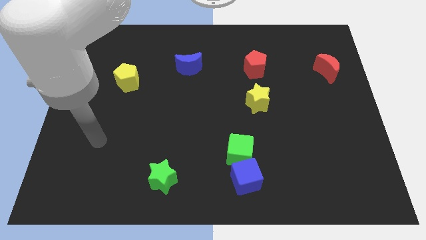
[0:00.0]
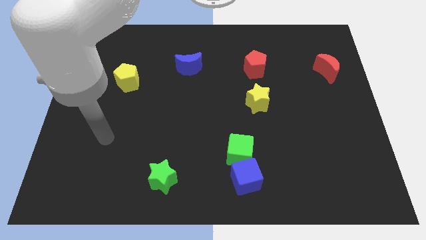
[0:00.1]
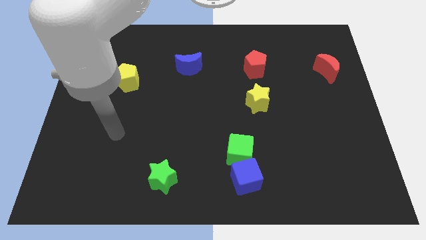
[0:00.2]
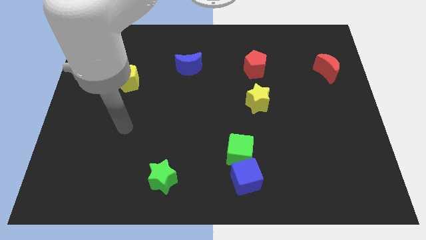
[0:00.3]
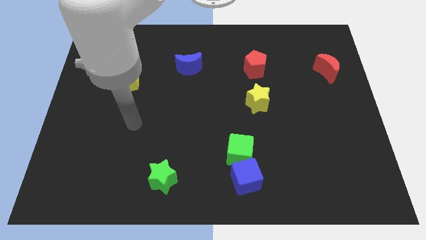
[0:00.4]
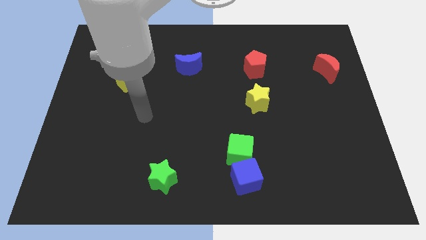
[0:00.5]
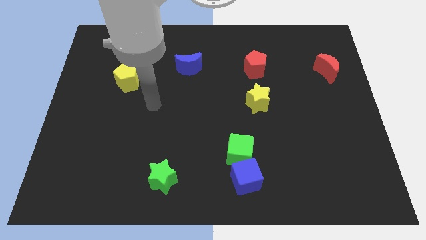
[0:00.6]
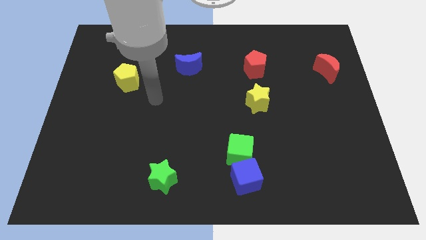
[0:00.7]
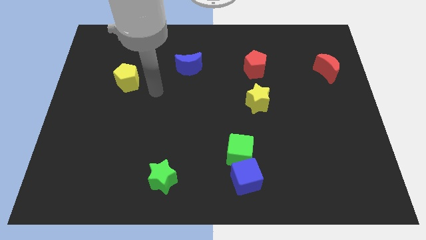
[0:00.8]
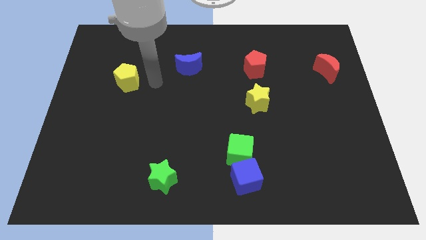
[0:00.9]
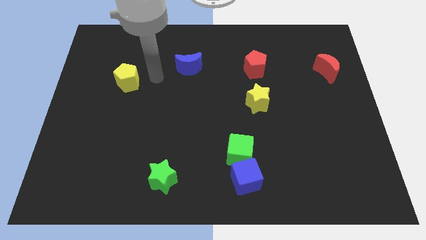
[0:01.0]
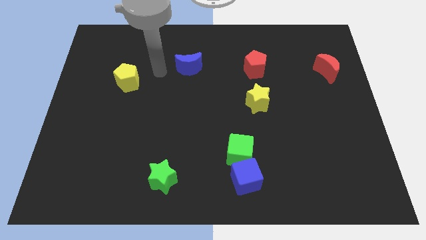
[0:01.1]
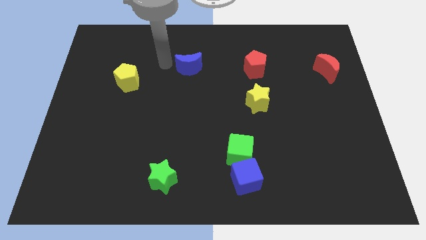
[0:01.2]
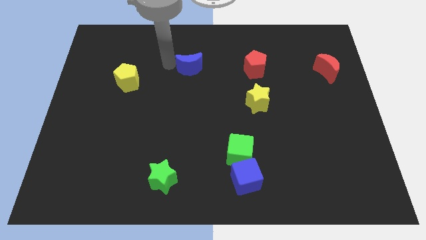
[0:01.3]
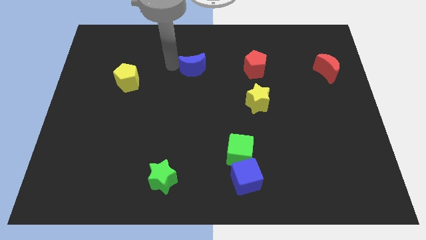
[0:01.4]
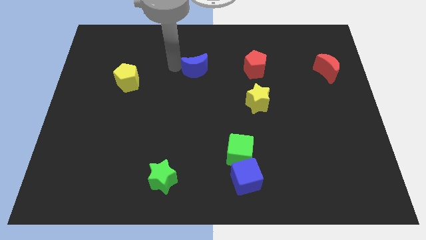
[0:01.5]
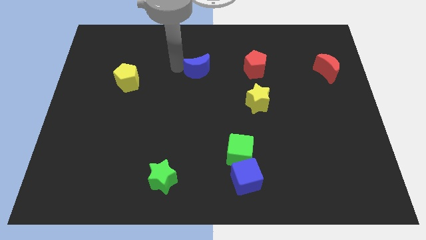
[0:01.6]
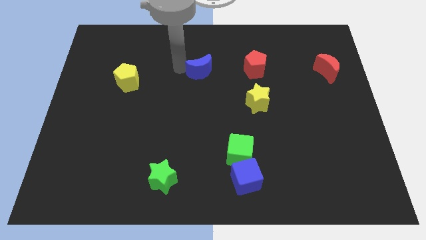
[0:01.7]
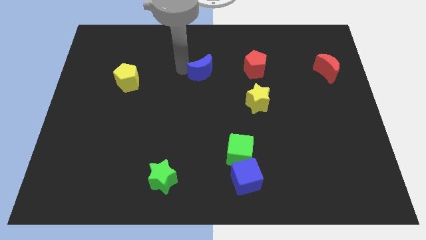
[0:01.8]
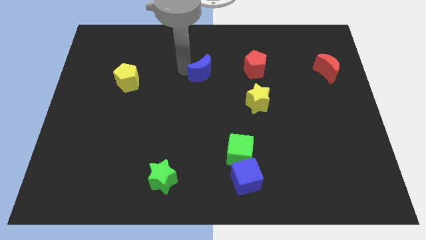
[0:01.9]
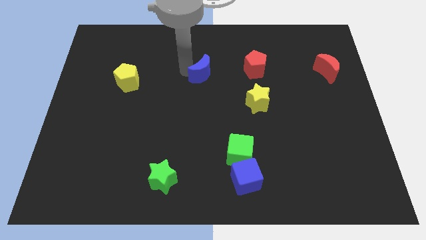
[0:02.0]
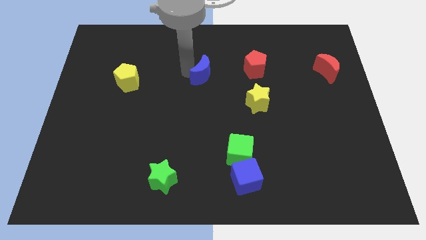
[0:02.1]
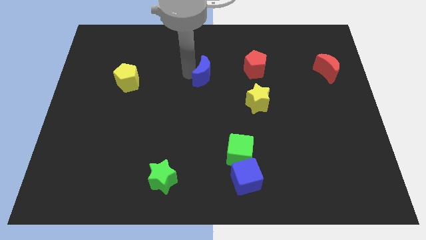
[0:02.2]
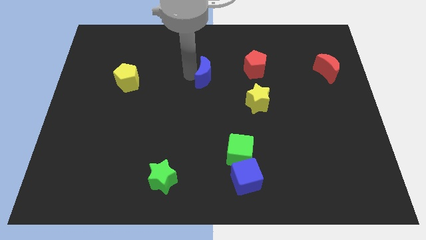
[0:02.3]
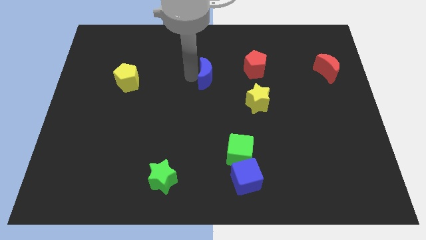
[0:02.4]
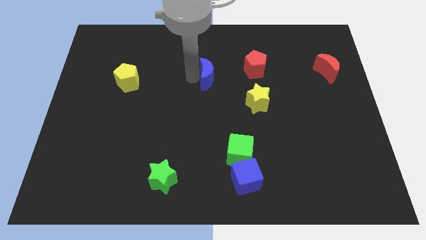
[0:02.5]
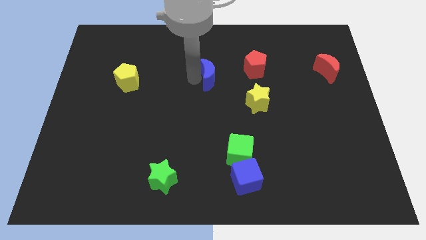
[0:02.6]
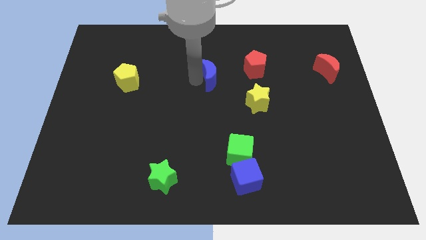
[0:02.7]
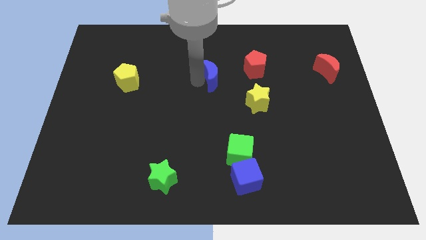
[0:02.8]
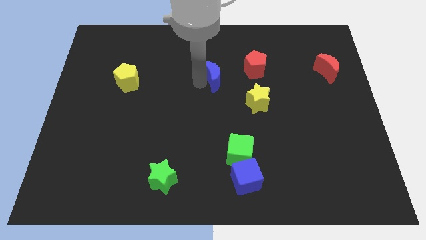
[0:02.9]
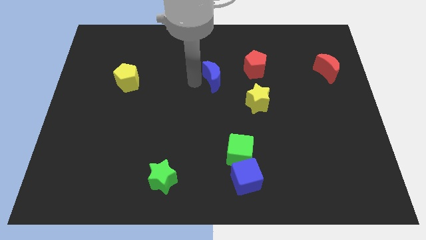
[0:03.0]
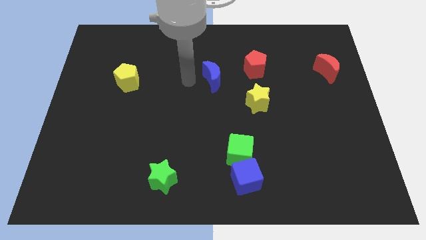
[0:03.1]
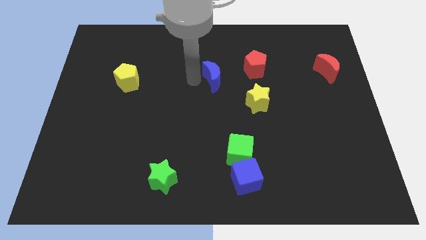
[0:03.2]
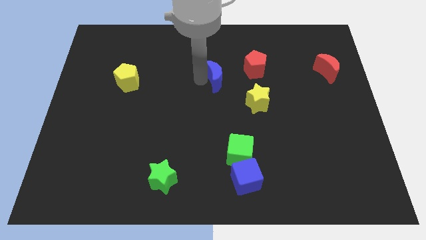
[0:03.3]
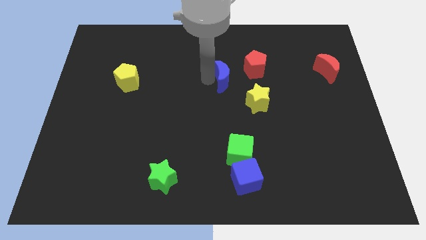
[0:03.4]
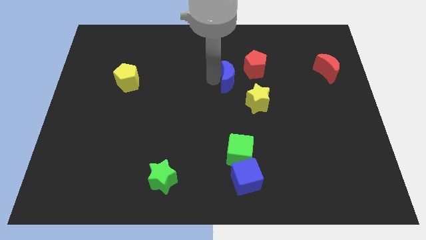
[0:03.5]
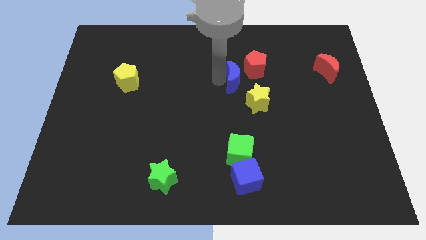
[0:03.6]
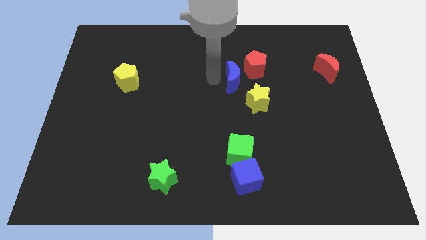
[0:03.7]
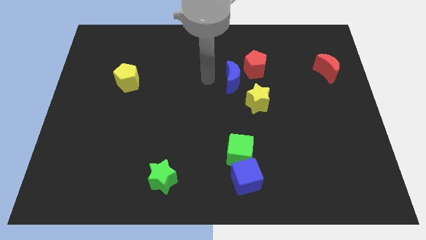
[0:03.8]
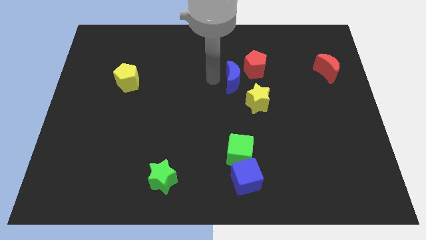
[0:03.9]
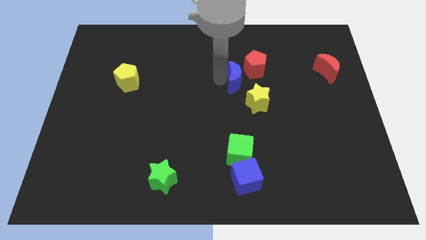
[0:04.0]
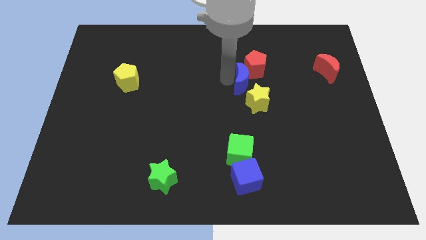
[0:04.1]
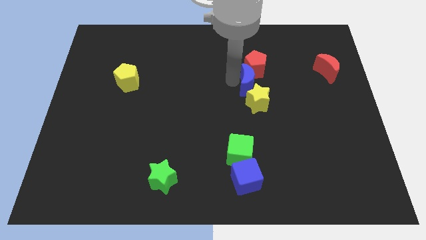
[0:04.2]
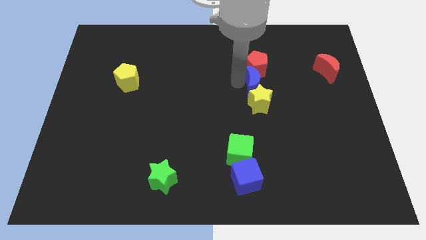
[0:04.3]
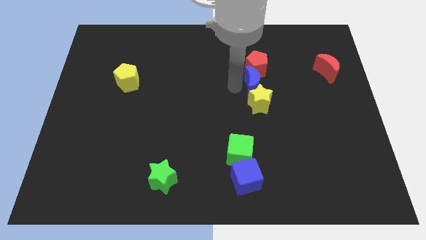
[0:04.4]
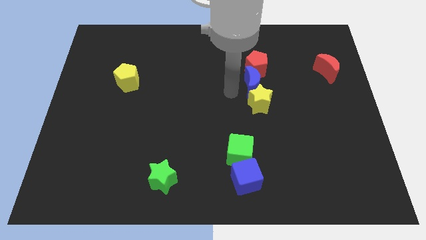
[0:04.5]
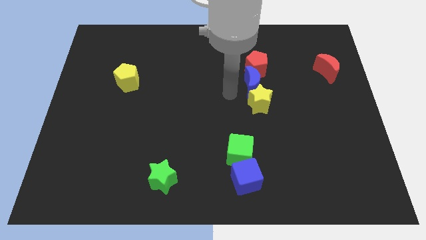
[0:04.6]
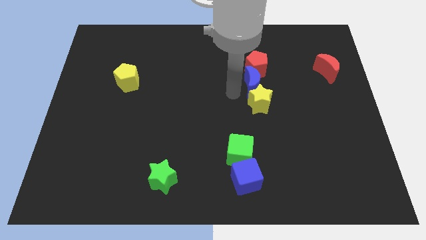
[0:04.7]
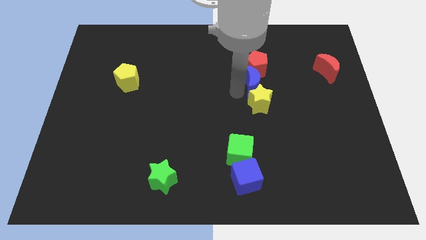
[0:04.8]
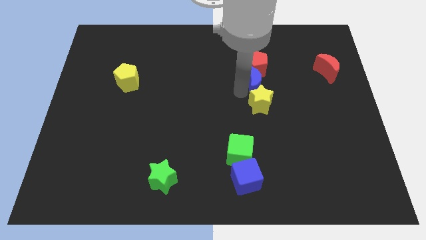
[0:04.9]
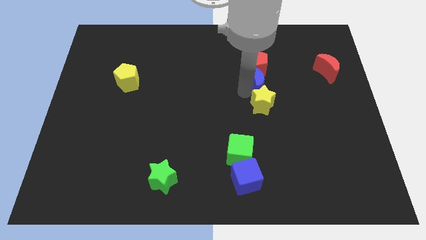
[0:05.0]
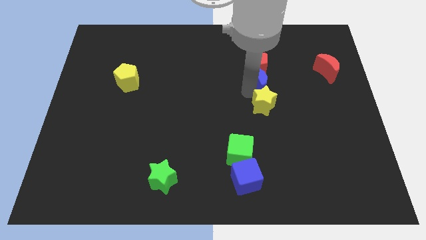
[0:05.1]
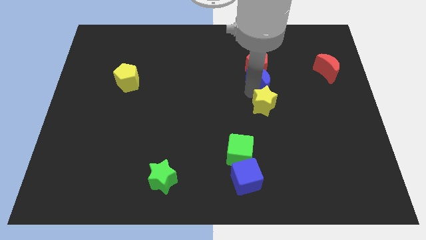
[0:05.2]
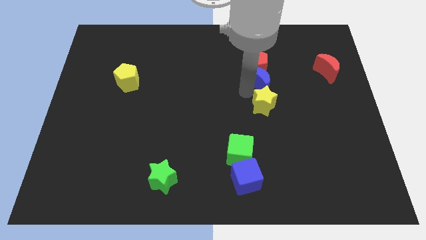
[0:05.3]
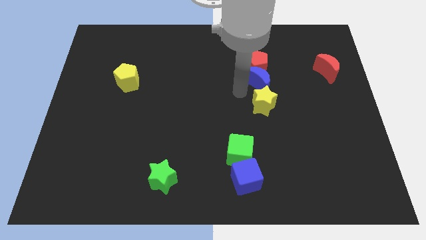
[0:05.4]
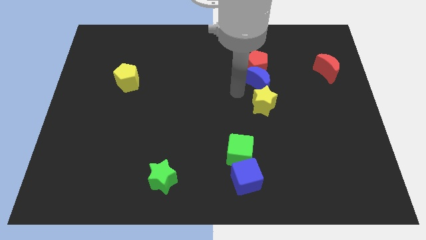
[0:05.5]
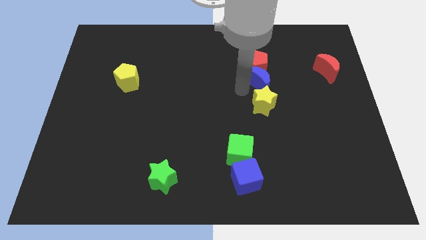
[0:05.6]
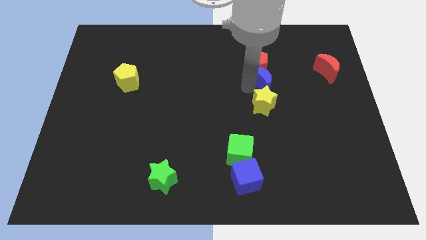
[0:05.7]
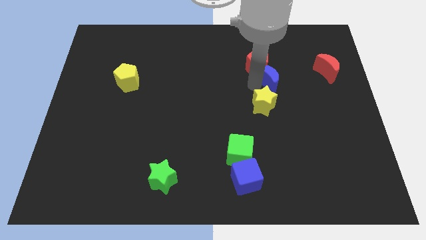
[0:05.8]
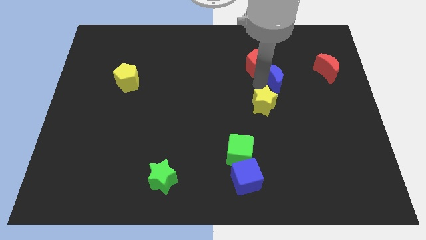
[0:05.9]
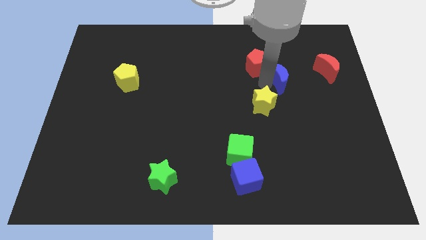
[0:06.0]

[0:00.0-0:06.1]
move the blue moon to the right side of the red pentagon
